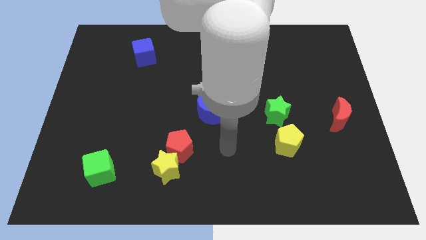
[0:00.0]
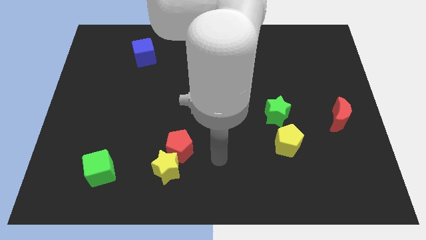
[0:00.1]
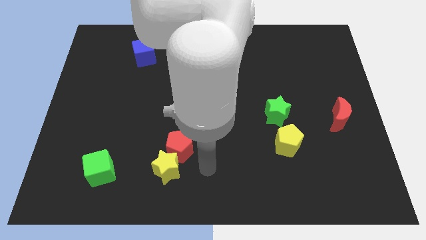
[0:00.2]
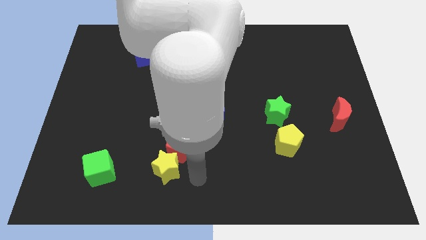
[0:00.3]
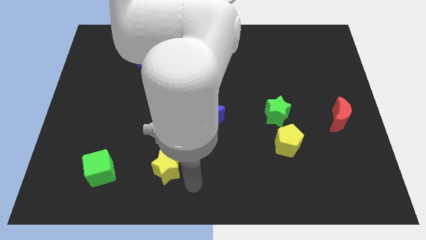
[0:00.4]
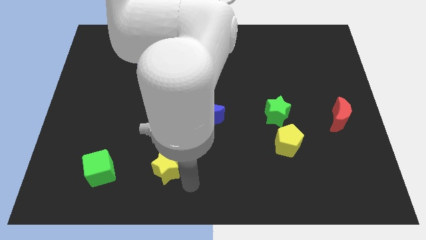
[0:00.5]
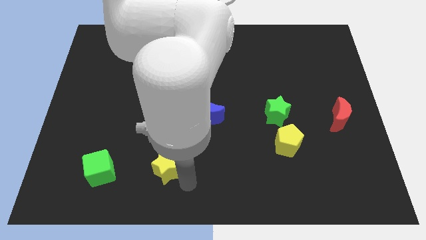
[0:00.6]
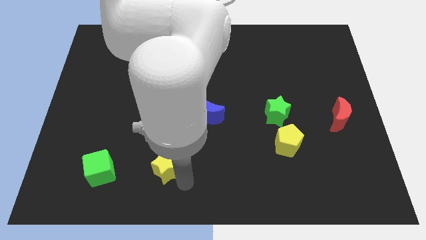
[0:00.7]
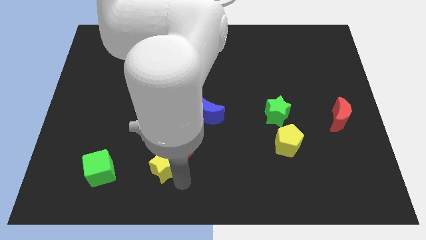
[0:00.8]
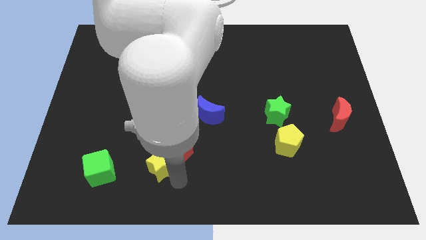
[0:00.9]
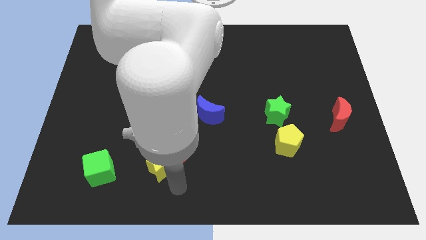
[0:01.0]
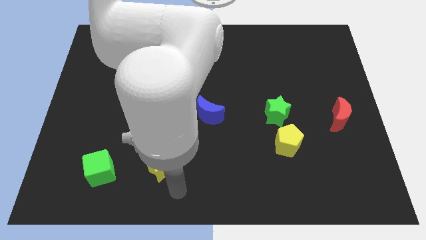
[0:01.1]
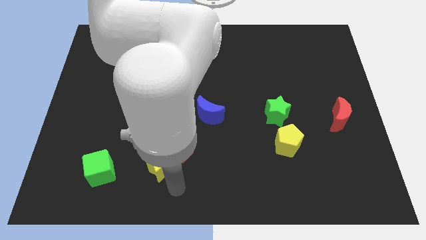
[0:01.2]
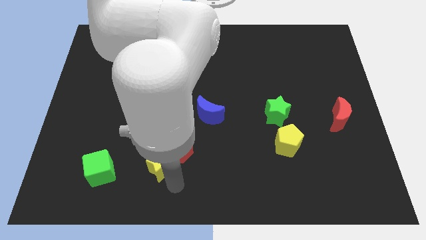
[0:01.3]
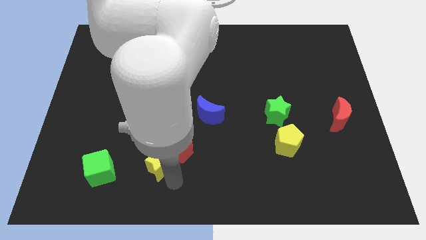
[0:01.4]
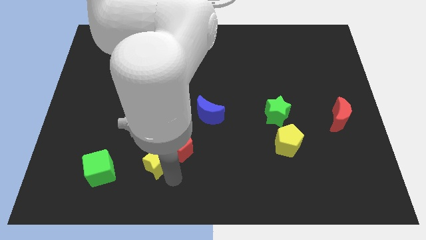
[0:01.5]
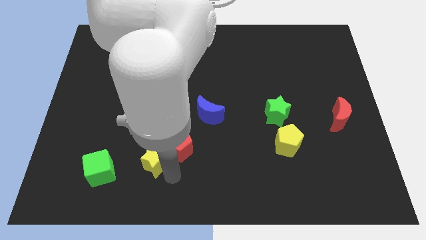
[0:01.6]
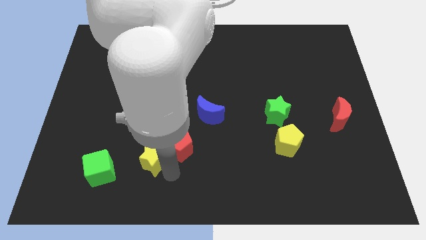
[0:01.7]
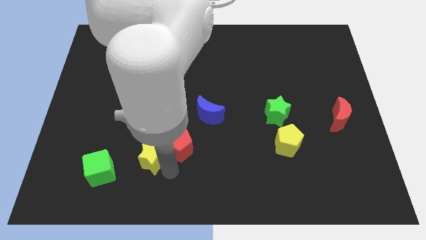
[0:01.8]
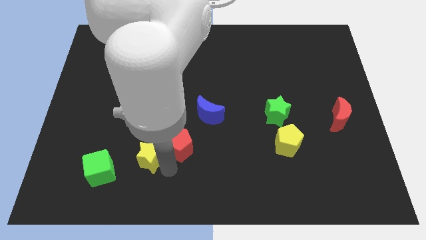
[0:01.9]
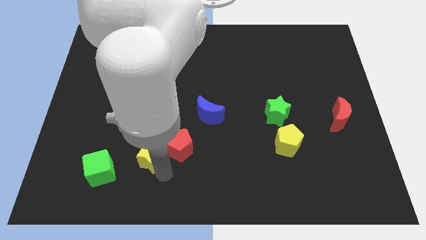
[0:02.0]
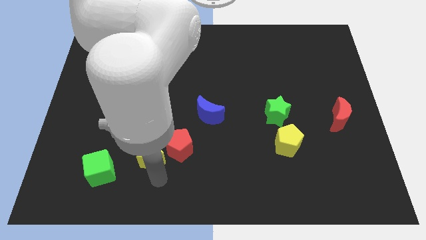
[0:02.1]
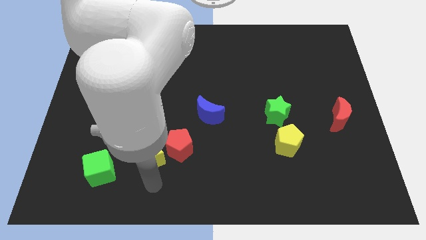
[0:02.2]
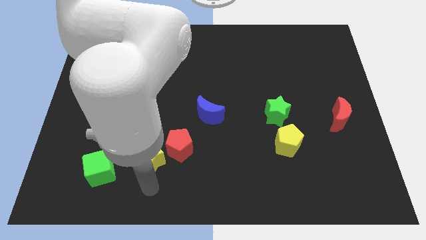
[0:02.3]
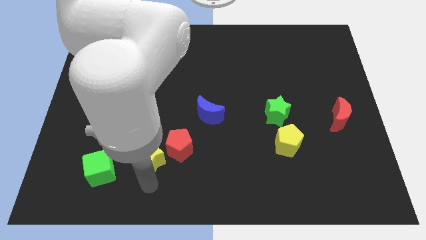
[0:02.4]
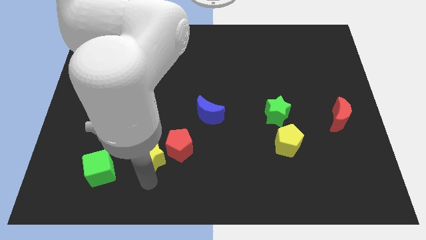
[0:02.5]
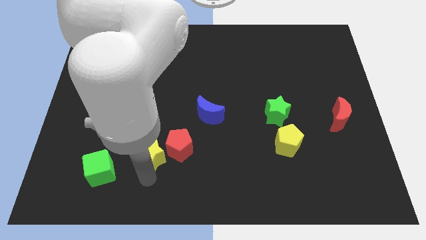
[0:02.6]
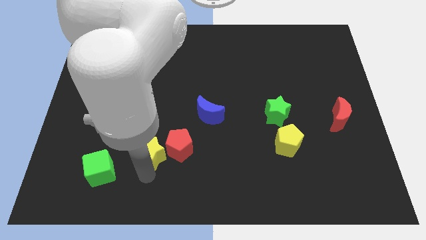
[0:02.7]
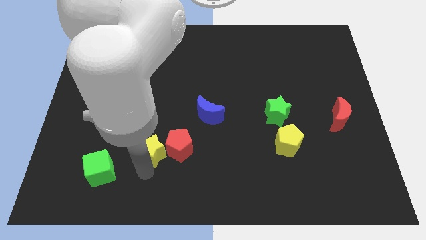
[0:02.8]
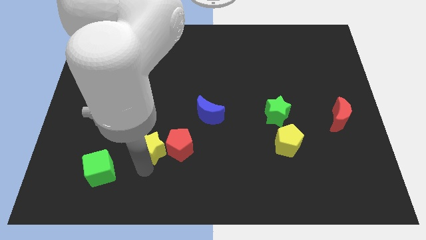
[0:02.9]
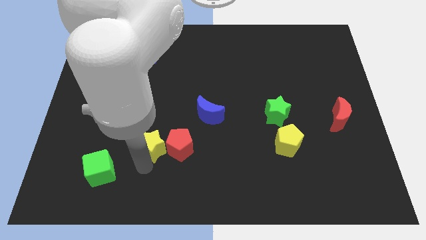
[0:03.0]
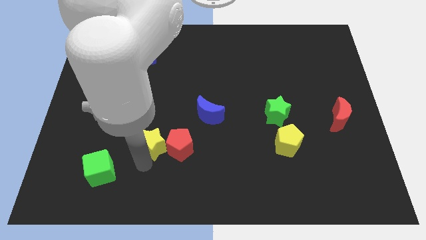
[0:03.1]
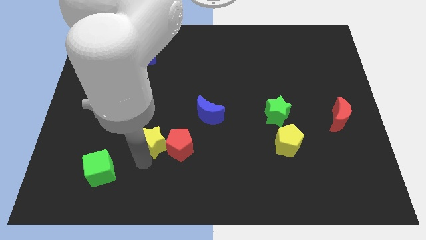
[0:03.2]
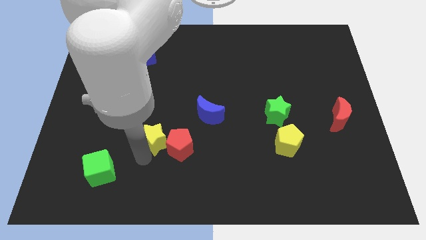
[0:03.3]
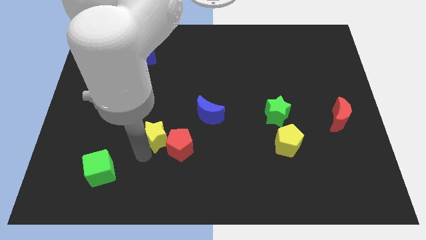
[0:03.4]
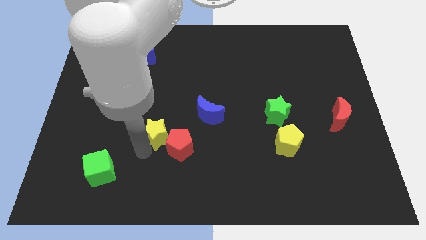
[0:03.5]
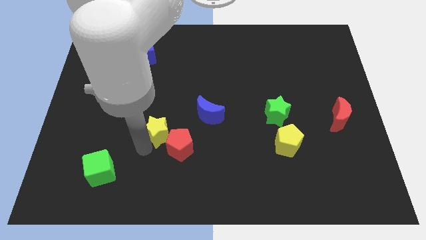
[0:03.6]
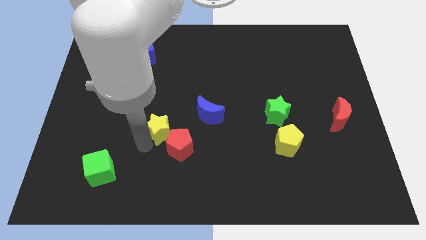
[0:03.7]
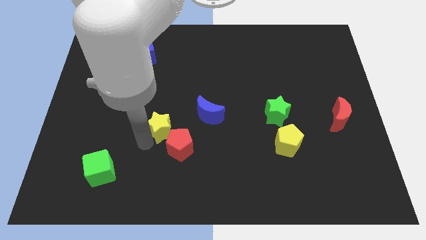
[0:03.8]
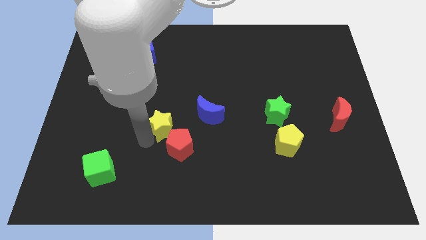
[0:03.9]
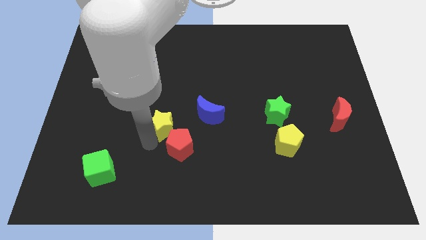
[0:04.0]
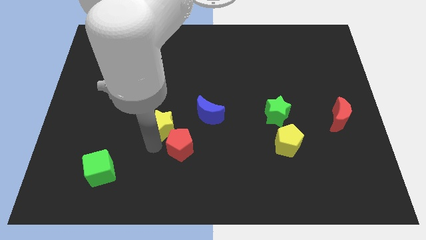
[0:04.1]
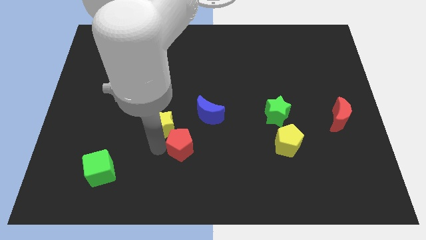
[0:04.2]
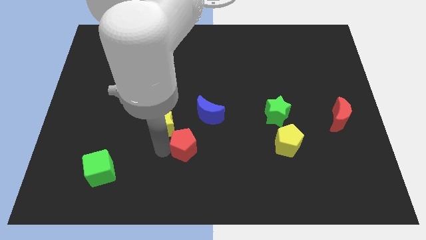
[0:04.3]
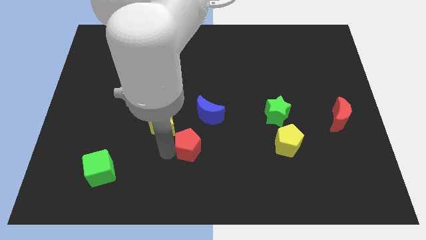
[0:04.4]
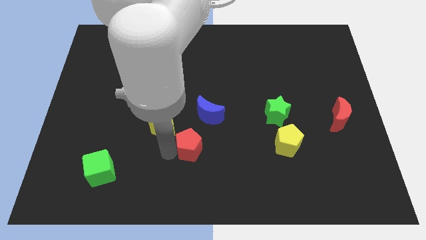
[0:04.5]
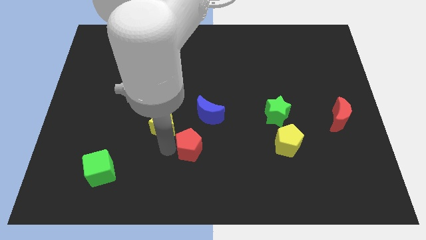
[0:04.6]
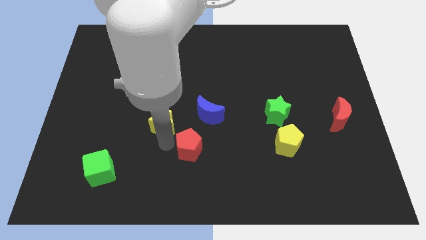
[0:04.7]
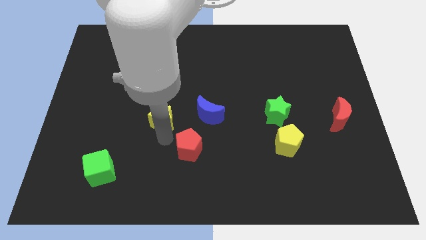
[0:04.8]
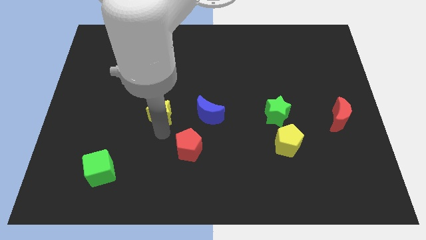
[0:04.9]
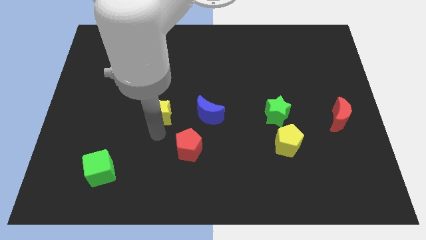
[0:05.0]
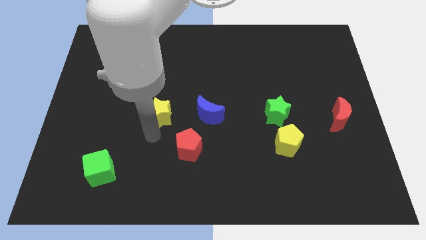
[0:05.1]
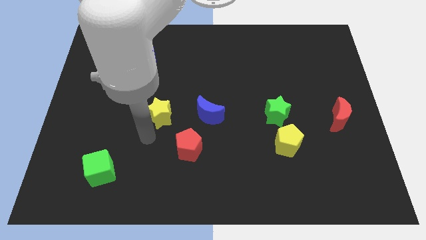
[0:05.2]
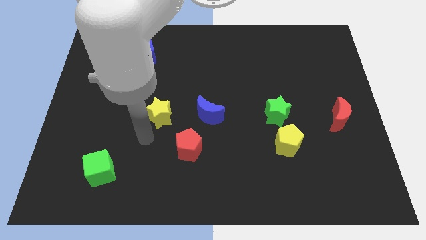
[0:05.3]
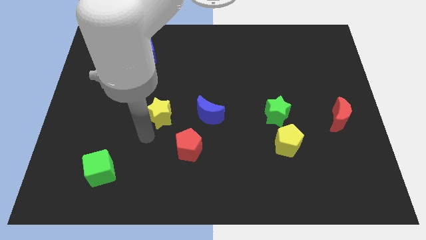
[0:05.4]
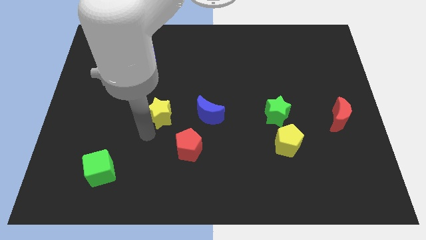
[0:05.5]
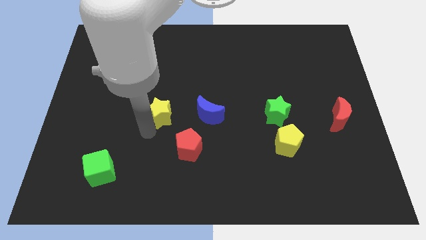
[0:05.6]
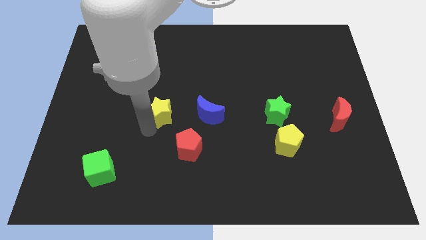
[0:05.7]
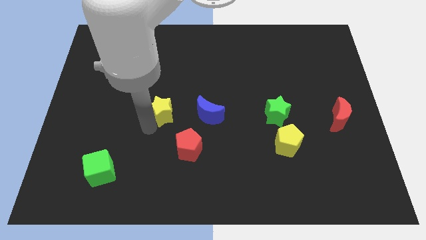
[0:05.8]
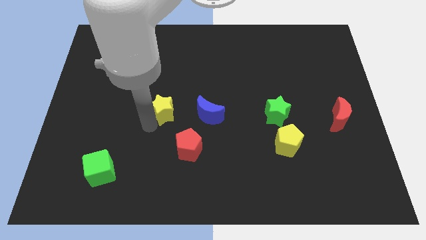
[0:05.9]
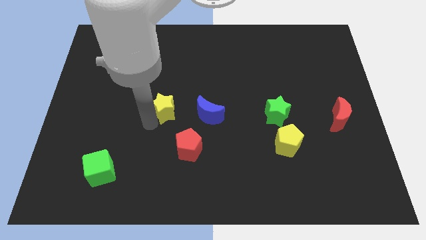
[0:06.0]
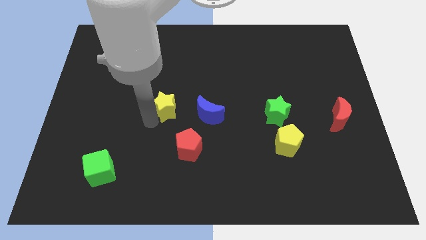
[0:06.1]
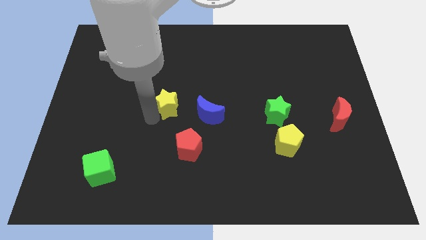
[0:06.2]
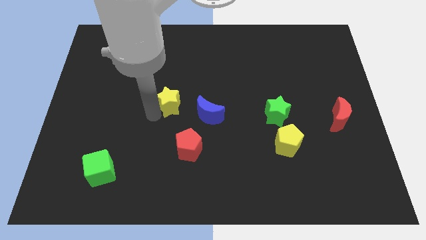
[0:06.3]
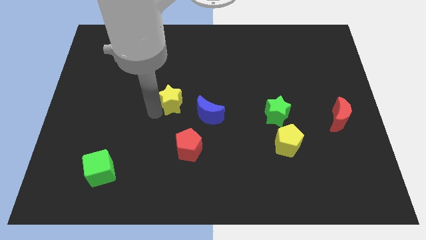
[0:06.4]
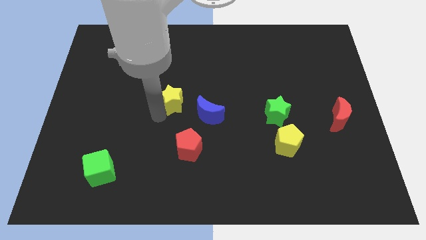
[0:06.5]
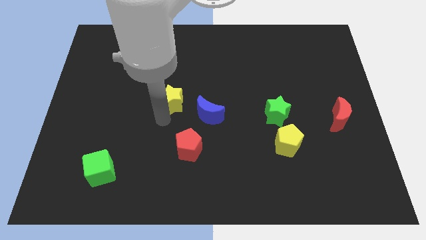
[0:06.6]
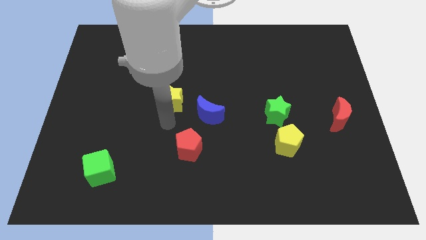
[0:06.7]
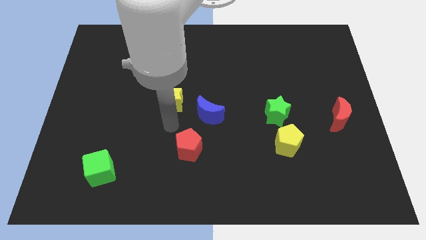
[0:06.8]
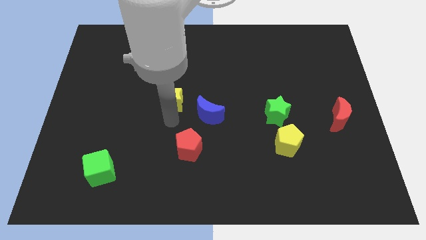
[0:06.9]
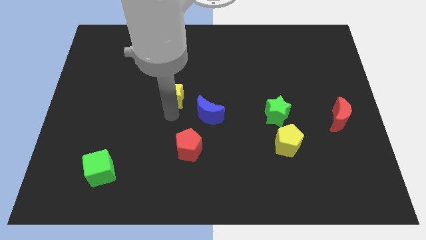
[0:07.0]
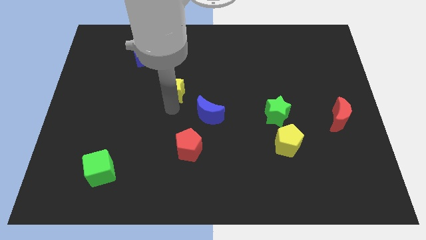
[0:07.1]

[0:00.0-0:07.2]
move the yellow star up

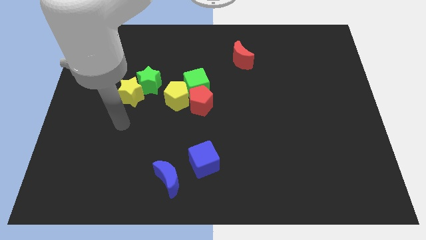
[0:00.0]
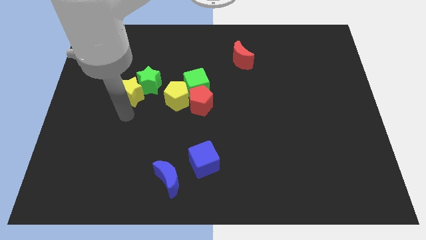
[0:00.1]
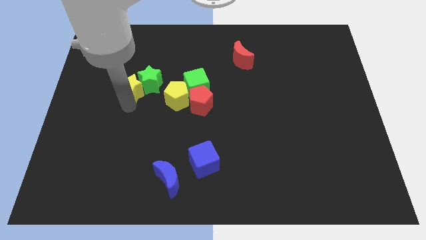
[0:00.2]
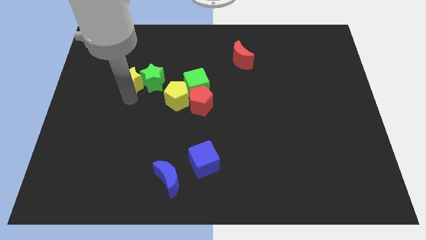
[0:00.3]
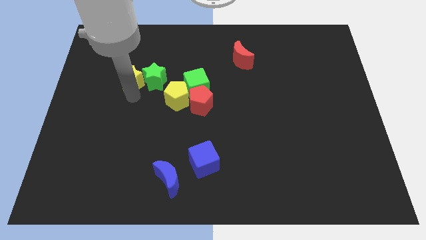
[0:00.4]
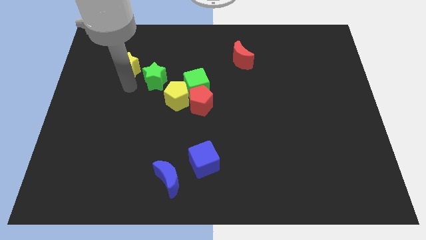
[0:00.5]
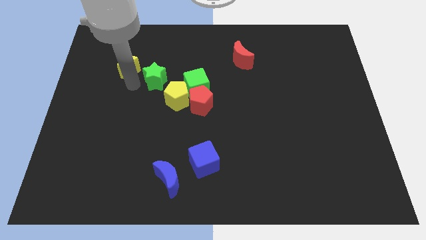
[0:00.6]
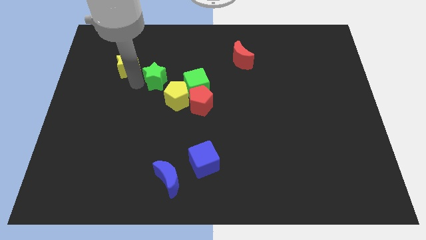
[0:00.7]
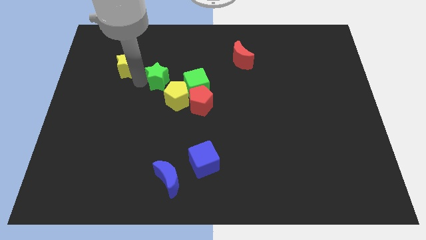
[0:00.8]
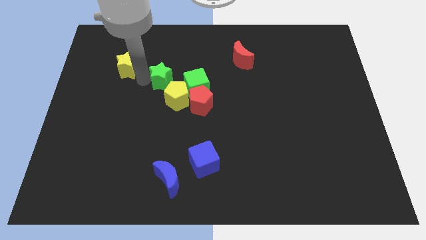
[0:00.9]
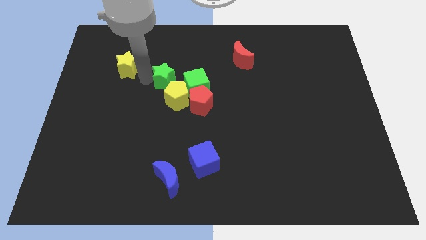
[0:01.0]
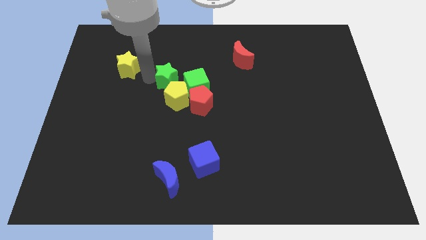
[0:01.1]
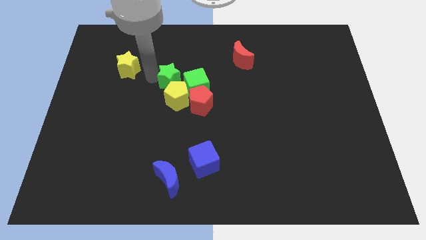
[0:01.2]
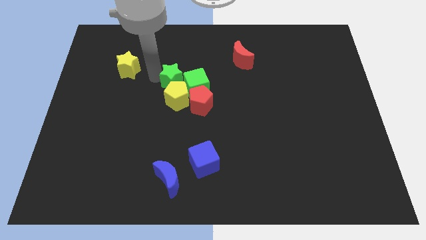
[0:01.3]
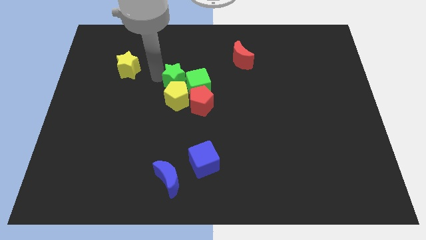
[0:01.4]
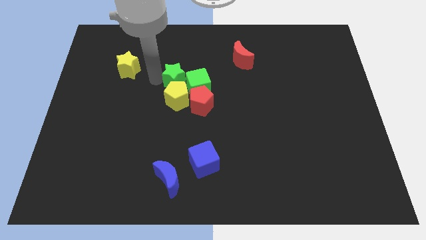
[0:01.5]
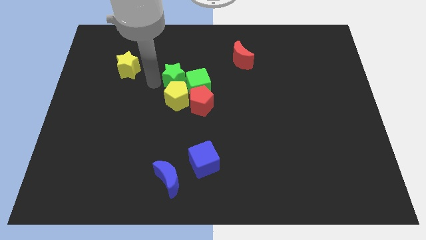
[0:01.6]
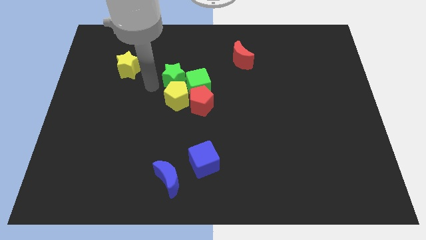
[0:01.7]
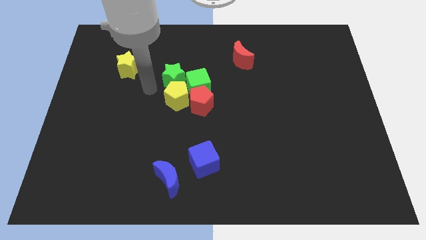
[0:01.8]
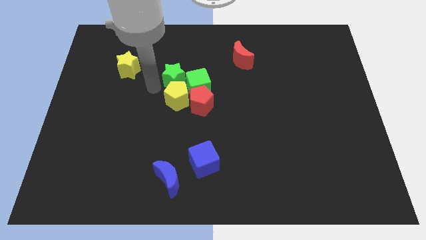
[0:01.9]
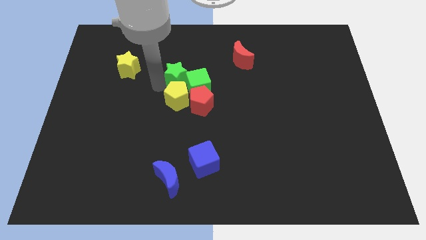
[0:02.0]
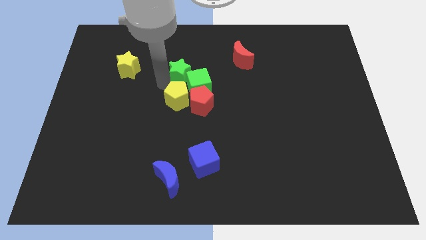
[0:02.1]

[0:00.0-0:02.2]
move the green star slightly to the right
